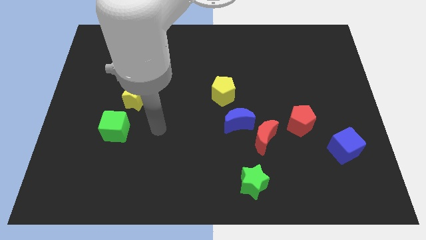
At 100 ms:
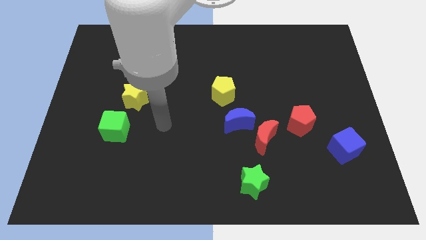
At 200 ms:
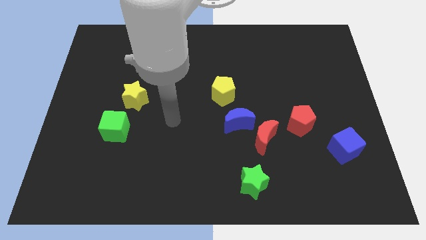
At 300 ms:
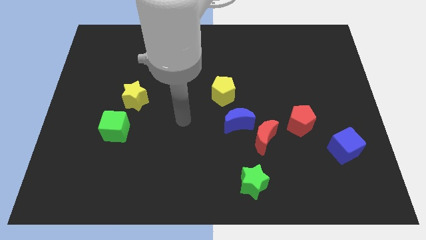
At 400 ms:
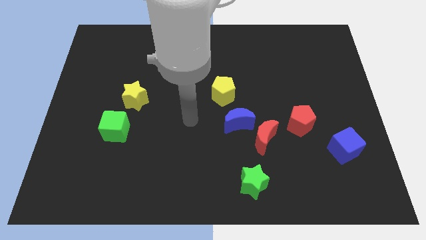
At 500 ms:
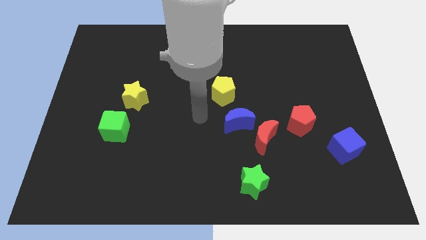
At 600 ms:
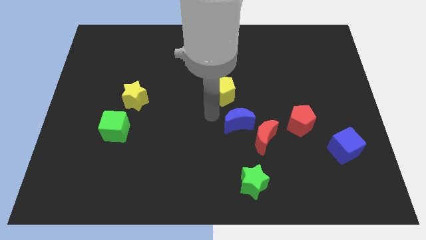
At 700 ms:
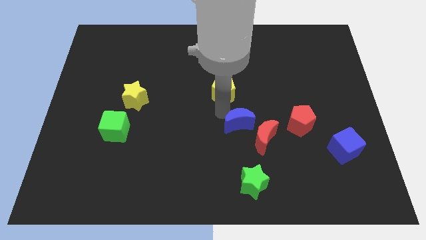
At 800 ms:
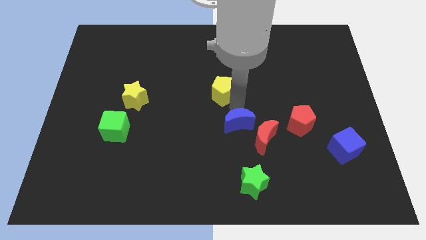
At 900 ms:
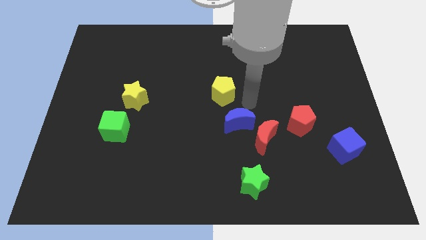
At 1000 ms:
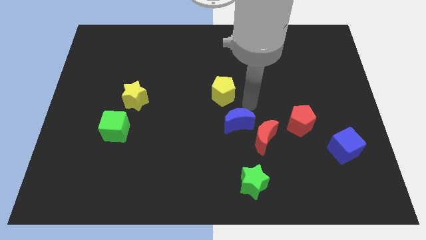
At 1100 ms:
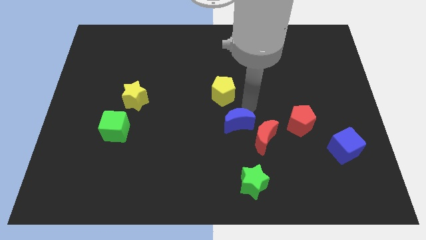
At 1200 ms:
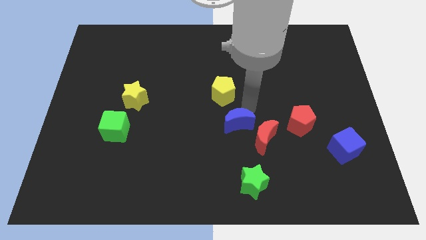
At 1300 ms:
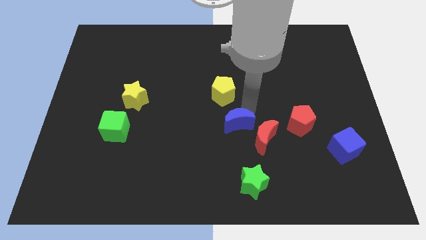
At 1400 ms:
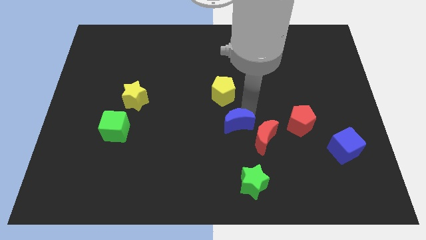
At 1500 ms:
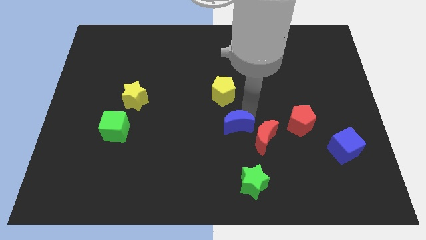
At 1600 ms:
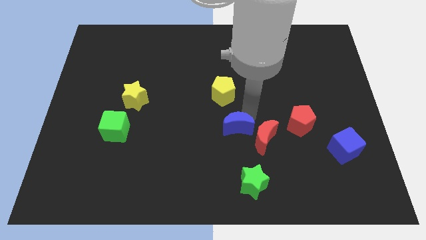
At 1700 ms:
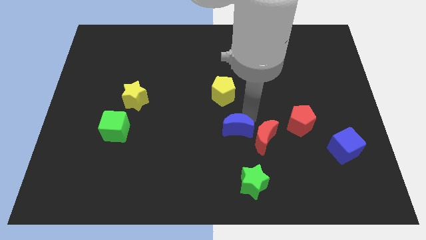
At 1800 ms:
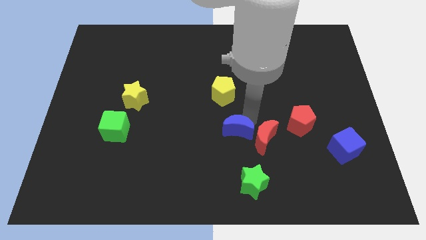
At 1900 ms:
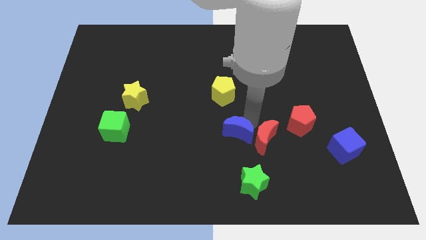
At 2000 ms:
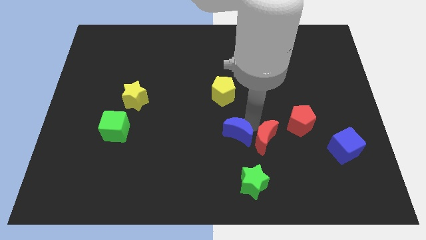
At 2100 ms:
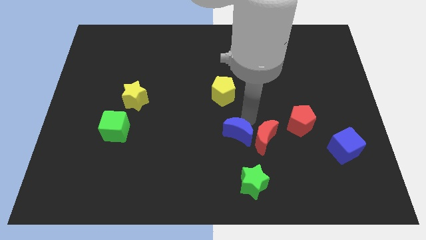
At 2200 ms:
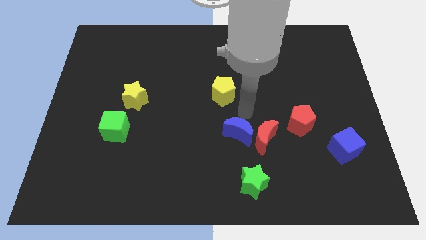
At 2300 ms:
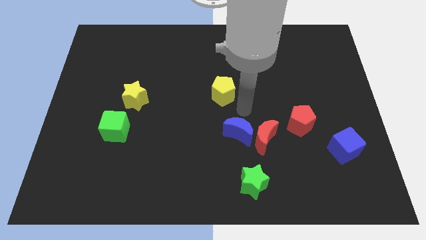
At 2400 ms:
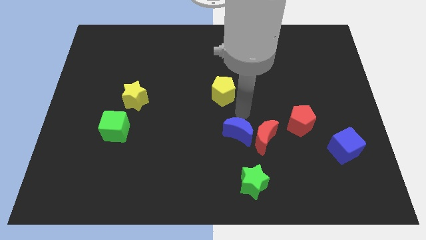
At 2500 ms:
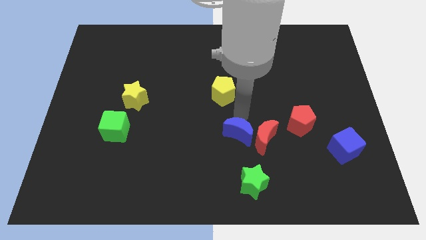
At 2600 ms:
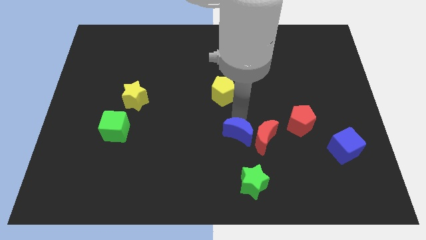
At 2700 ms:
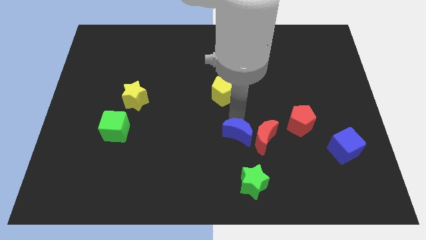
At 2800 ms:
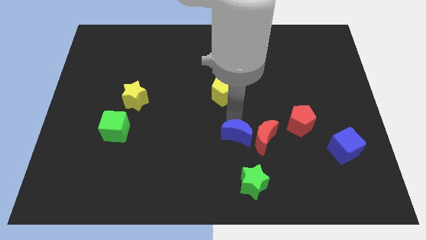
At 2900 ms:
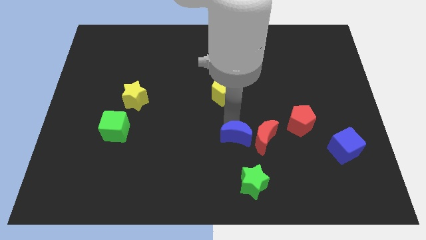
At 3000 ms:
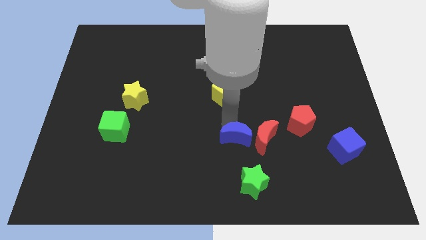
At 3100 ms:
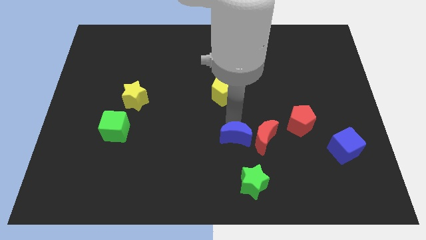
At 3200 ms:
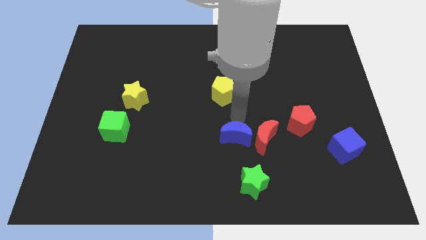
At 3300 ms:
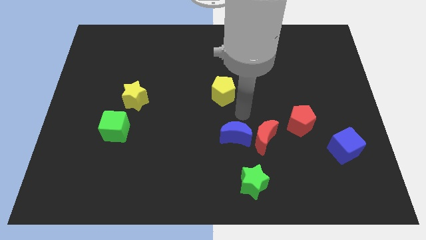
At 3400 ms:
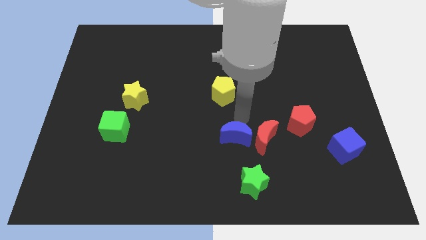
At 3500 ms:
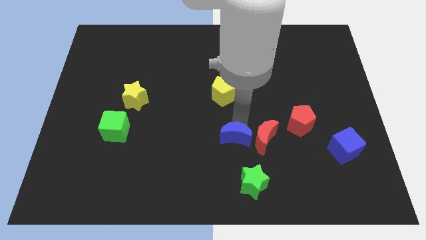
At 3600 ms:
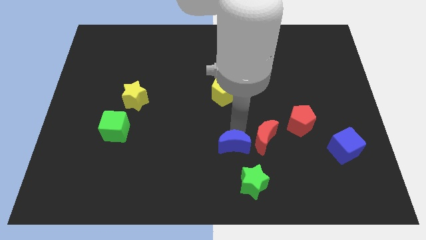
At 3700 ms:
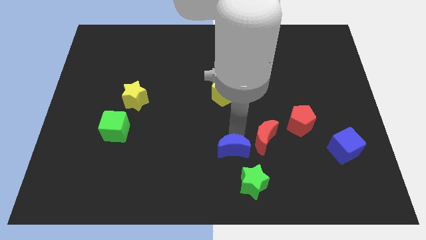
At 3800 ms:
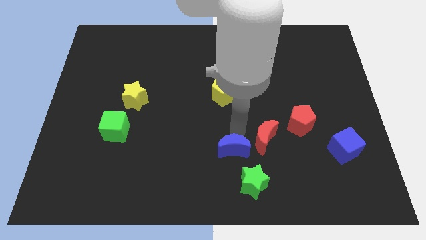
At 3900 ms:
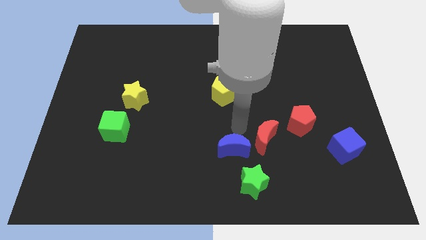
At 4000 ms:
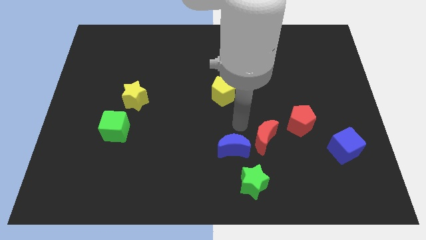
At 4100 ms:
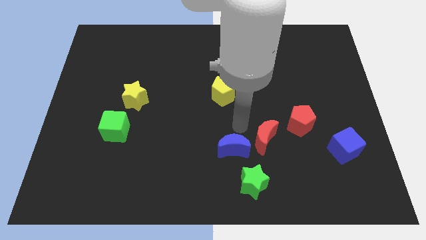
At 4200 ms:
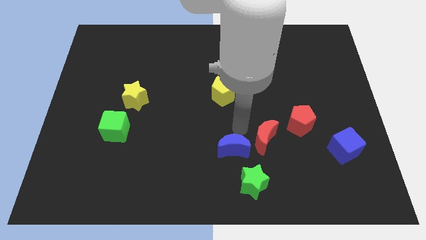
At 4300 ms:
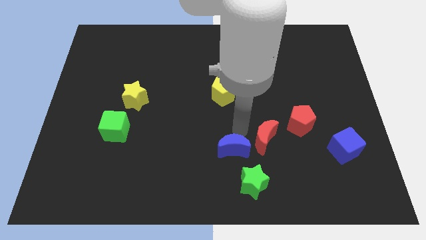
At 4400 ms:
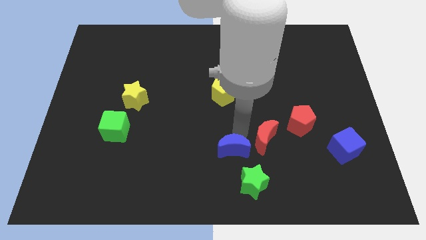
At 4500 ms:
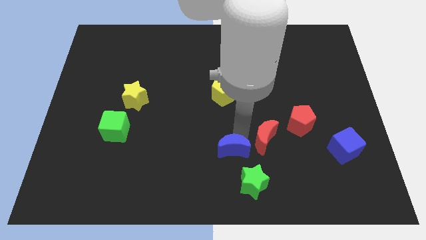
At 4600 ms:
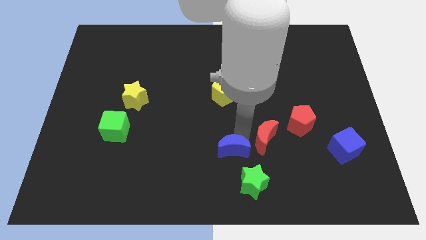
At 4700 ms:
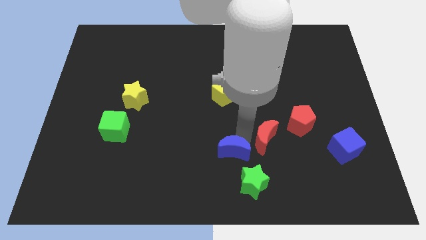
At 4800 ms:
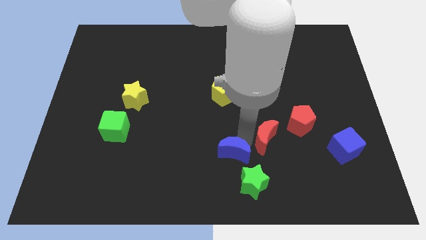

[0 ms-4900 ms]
separate the blue moon from the red moon and yellow pentagon

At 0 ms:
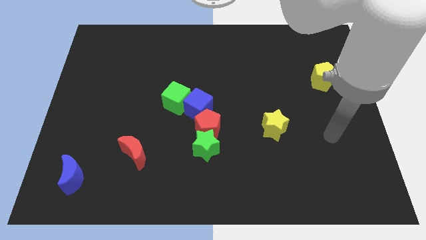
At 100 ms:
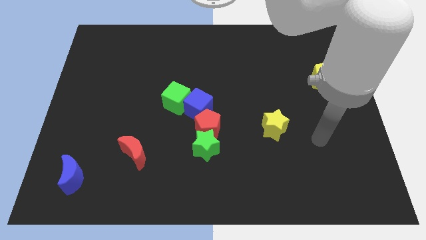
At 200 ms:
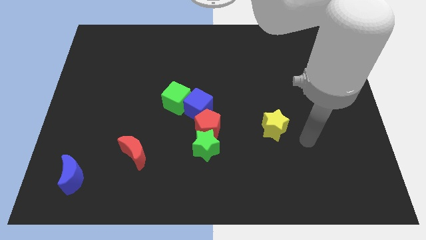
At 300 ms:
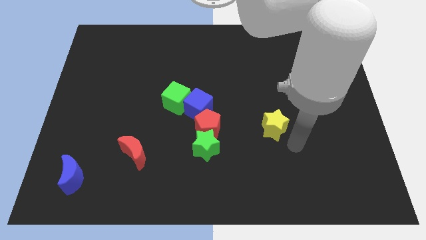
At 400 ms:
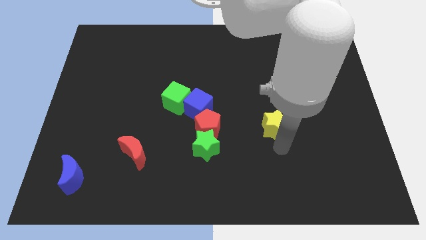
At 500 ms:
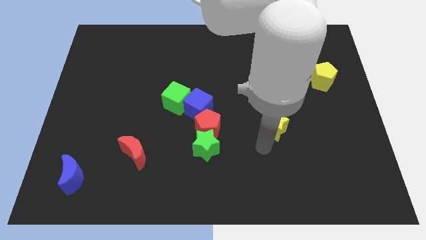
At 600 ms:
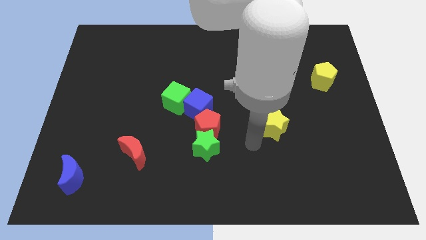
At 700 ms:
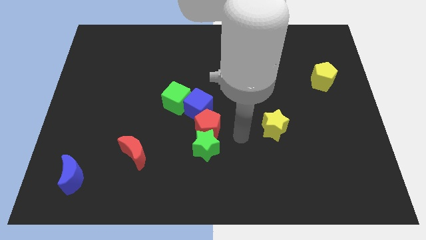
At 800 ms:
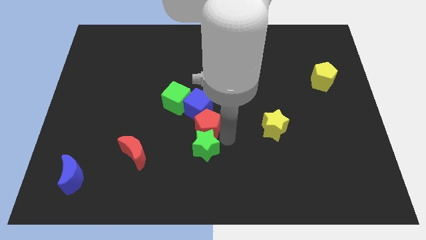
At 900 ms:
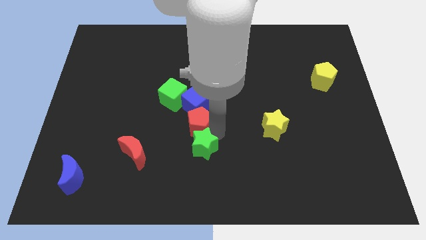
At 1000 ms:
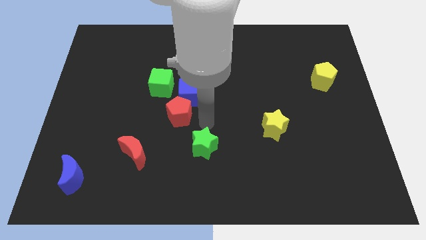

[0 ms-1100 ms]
pull the green star apart from the red pentagon

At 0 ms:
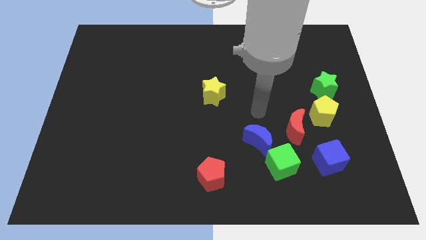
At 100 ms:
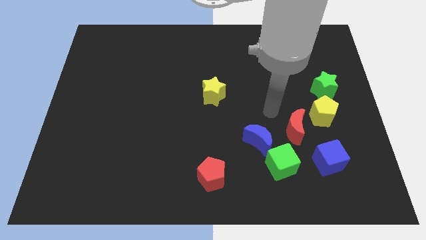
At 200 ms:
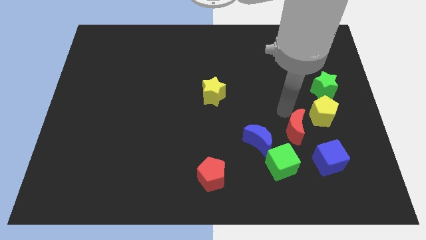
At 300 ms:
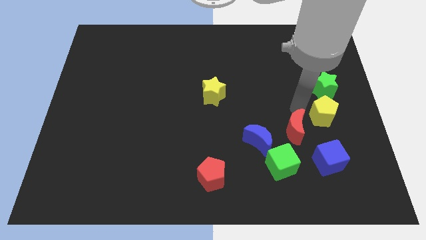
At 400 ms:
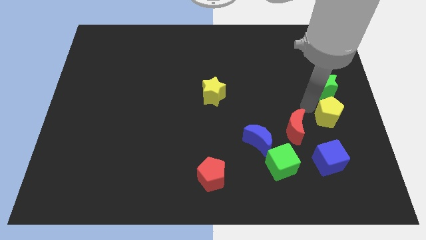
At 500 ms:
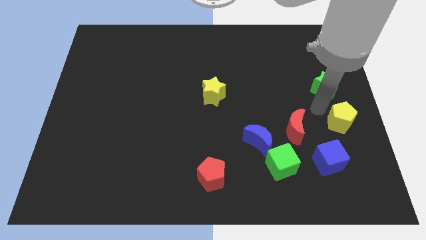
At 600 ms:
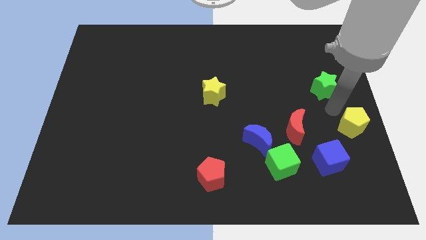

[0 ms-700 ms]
move the green star away from the yellow pentagon

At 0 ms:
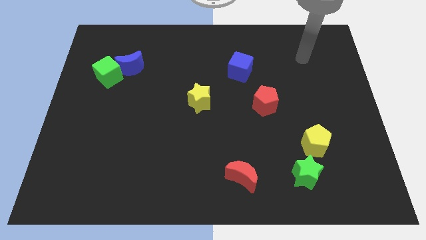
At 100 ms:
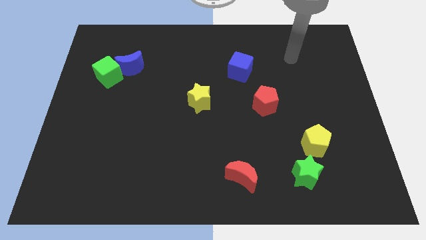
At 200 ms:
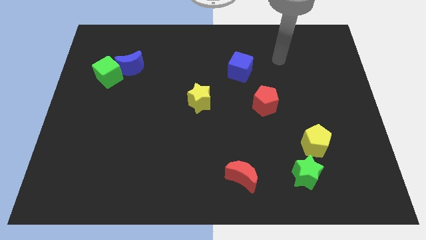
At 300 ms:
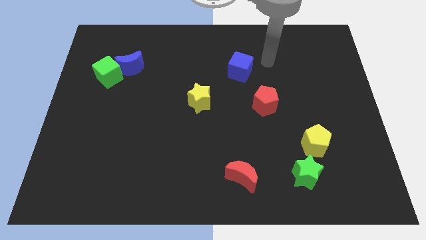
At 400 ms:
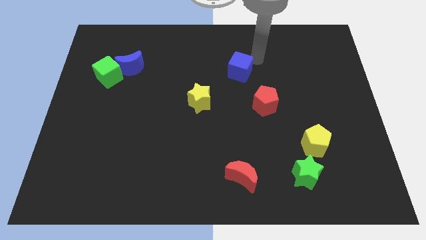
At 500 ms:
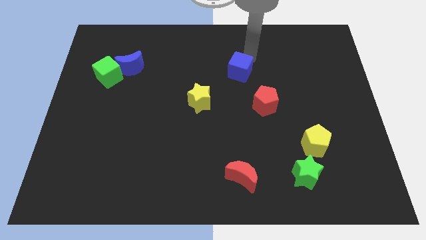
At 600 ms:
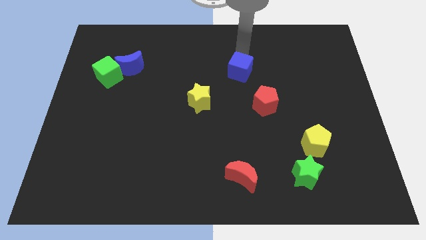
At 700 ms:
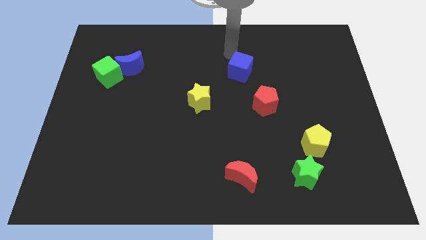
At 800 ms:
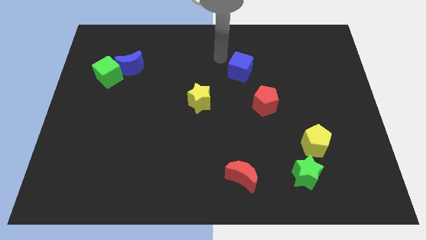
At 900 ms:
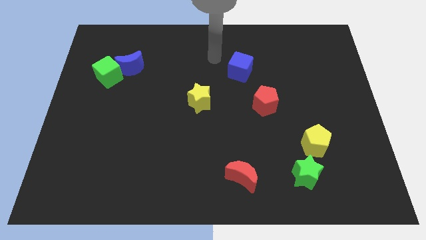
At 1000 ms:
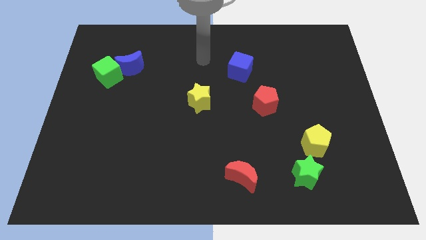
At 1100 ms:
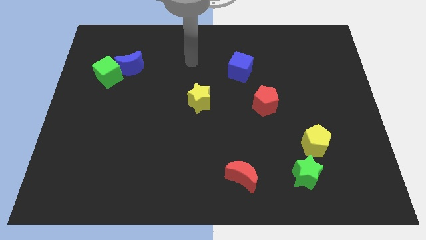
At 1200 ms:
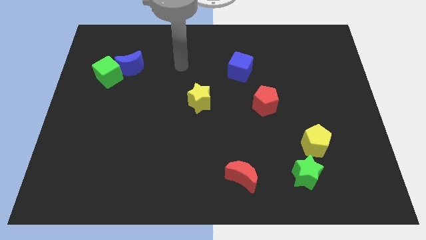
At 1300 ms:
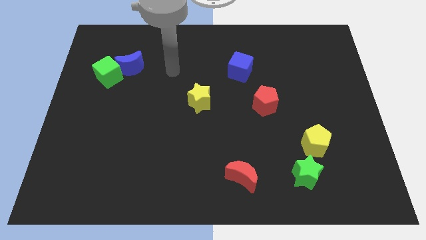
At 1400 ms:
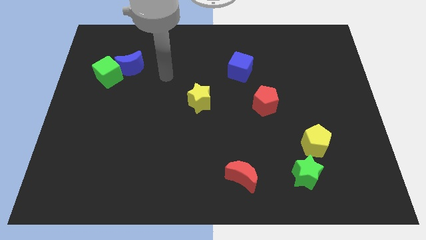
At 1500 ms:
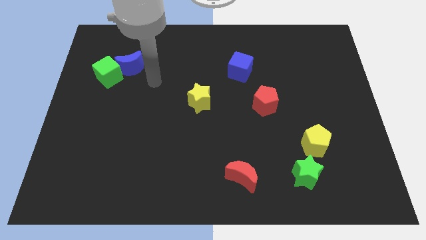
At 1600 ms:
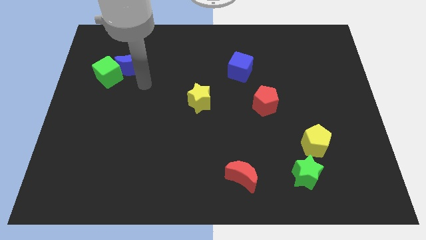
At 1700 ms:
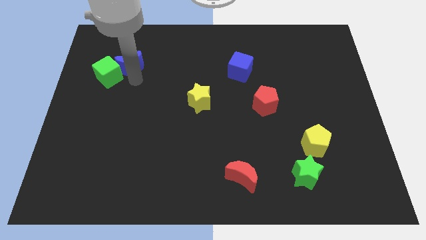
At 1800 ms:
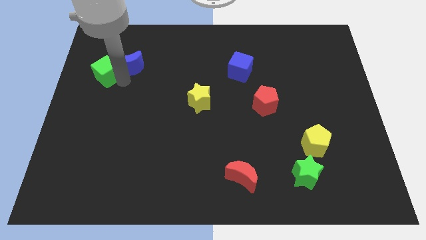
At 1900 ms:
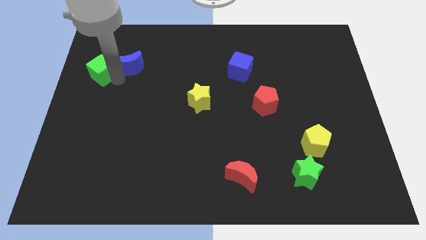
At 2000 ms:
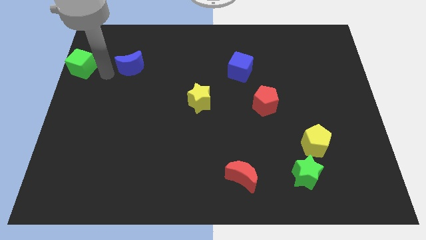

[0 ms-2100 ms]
separate the blue moon from the green cube

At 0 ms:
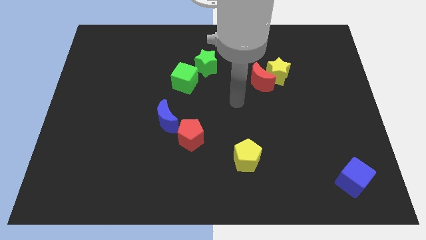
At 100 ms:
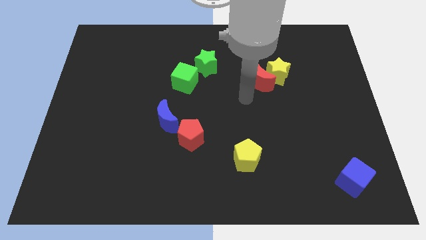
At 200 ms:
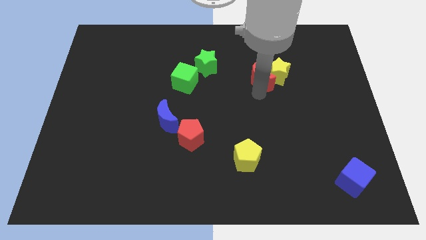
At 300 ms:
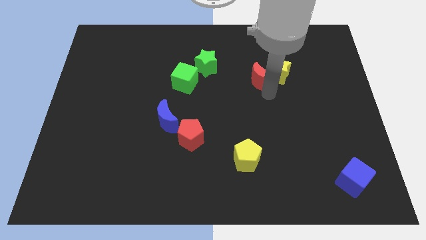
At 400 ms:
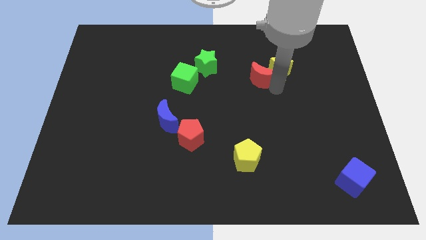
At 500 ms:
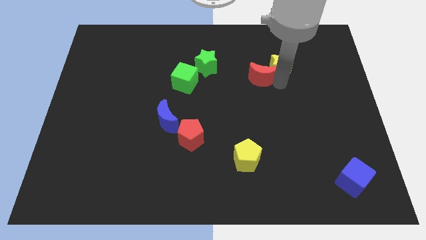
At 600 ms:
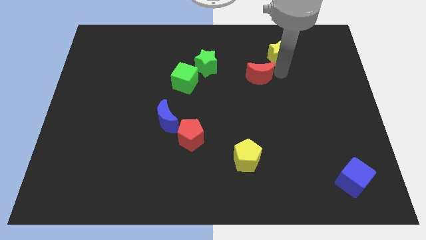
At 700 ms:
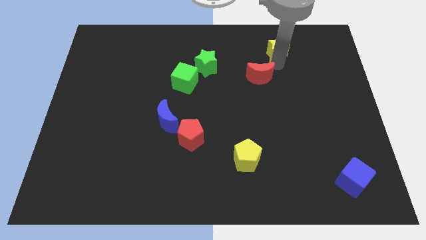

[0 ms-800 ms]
move the red moon away from the yellow star
